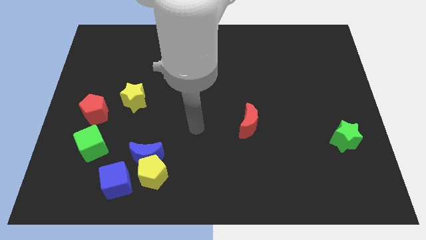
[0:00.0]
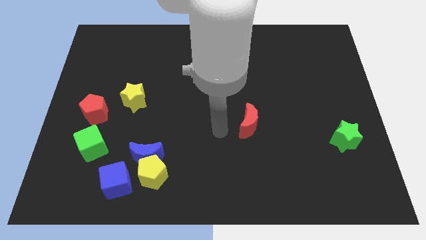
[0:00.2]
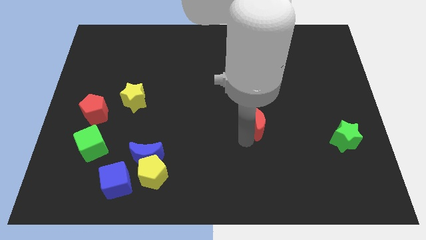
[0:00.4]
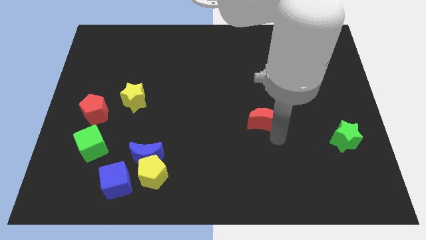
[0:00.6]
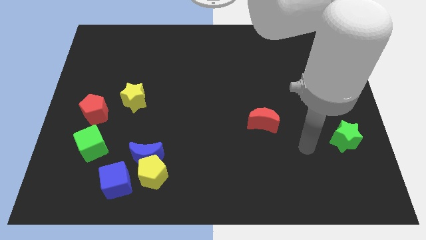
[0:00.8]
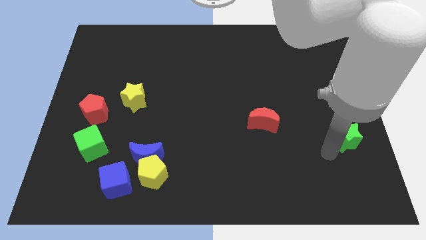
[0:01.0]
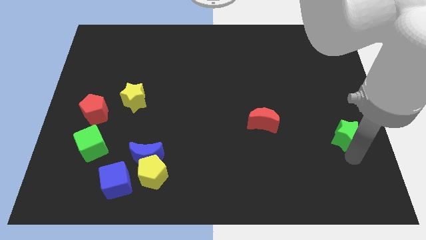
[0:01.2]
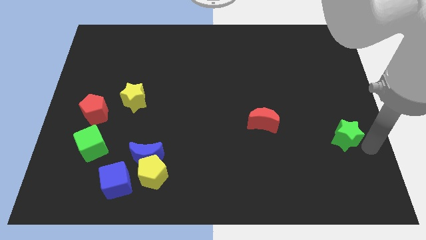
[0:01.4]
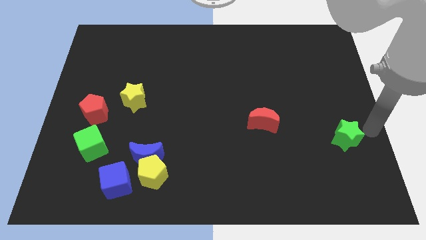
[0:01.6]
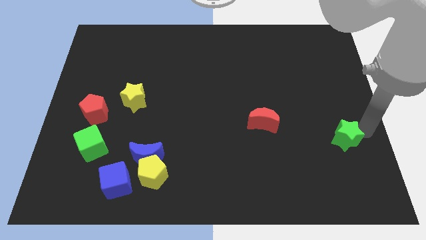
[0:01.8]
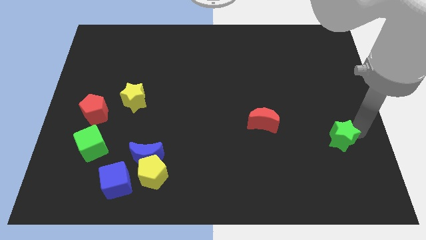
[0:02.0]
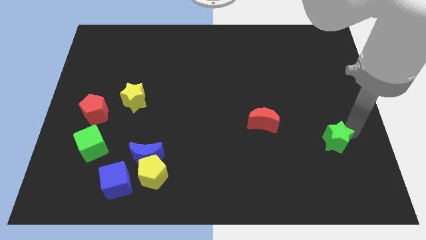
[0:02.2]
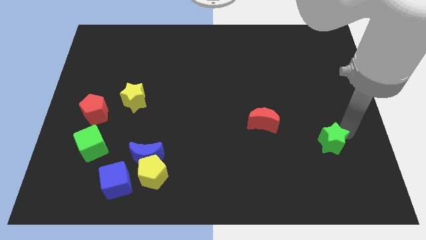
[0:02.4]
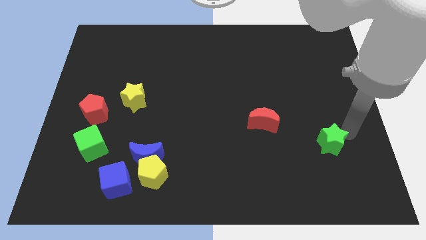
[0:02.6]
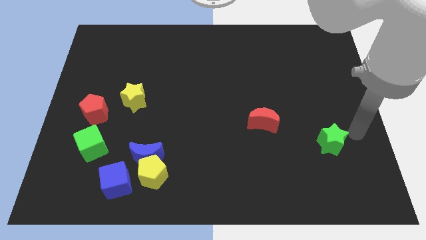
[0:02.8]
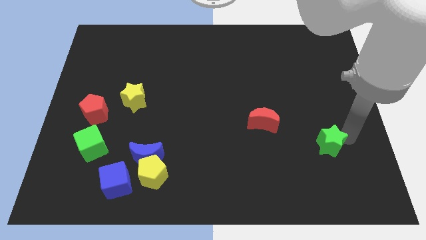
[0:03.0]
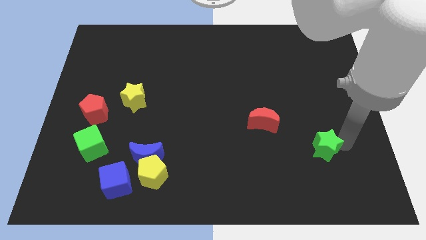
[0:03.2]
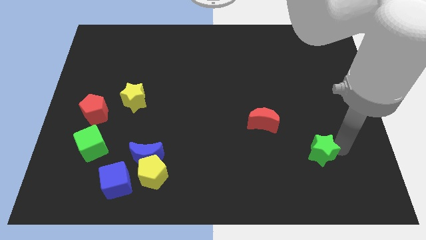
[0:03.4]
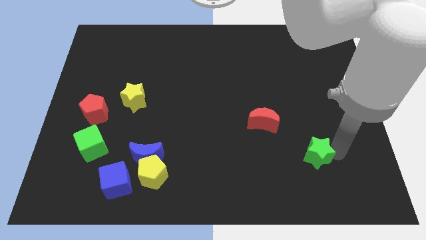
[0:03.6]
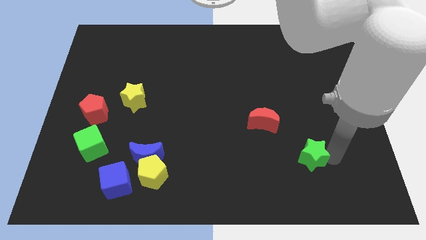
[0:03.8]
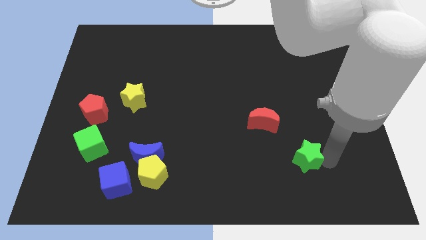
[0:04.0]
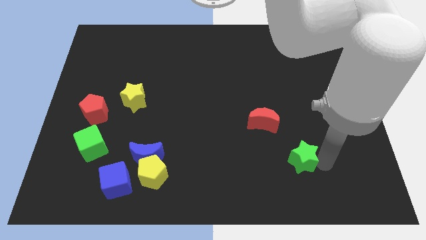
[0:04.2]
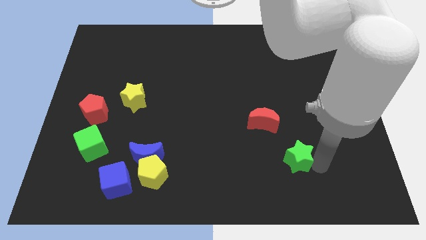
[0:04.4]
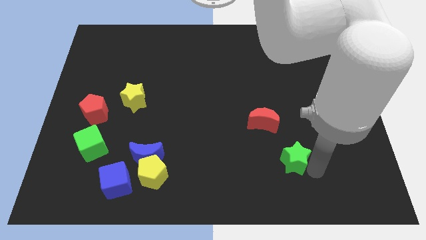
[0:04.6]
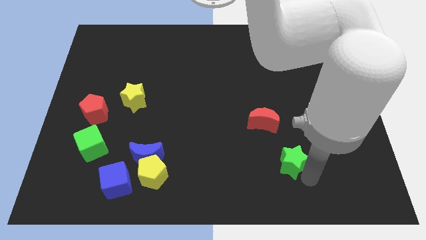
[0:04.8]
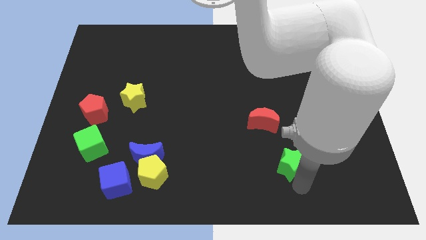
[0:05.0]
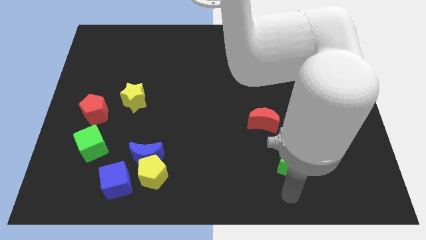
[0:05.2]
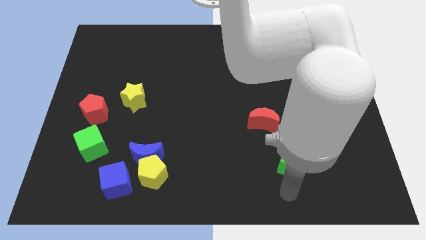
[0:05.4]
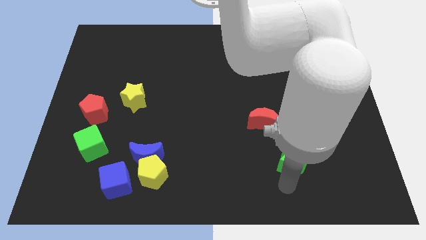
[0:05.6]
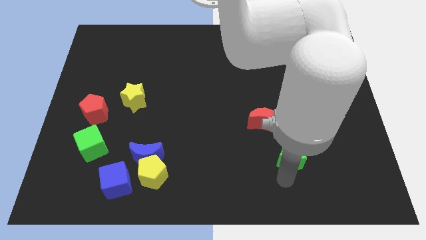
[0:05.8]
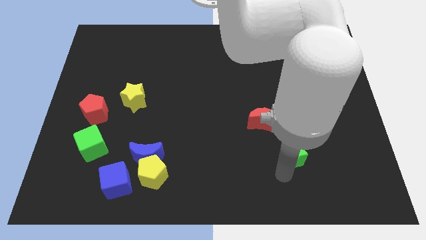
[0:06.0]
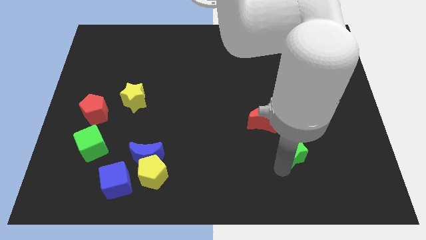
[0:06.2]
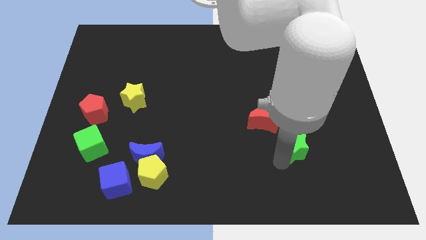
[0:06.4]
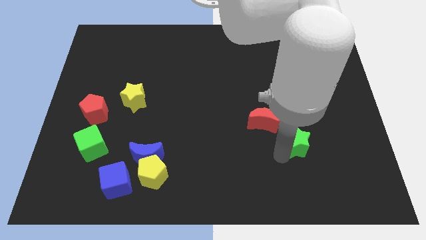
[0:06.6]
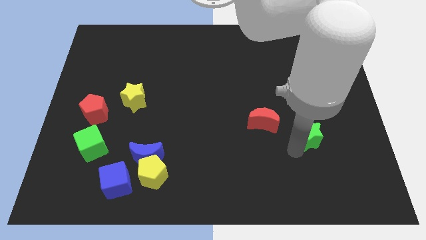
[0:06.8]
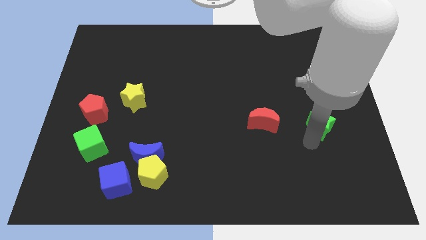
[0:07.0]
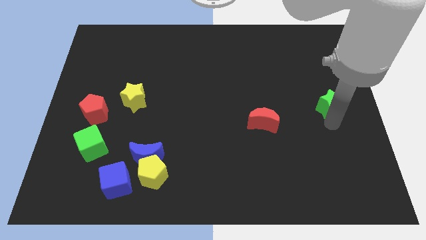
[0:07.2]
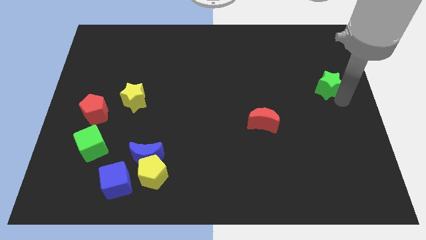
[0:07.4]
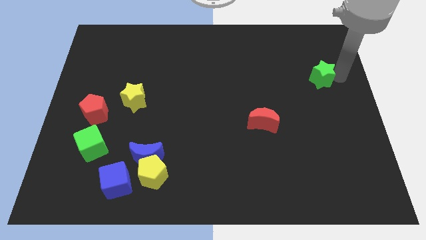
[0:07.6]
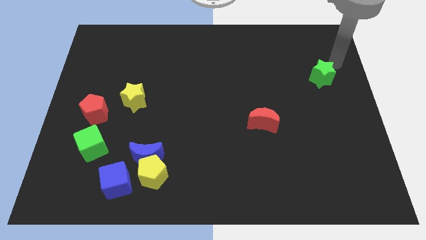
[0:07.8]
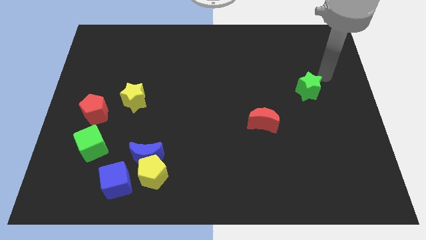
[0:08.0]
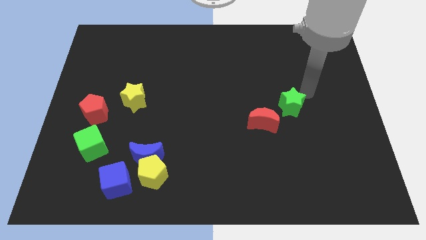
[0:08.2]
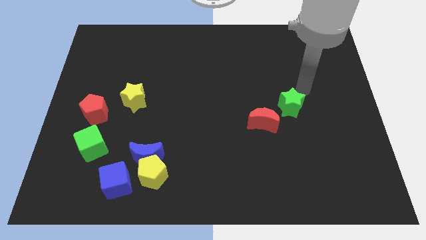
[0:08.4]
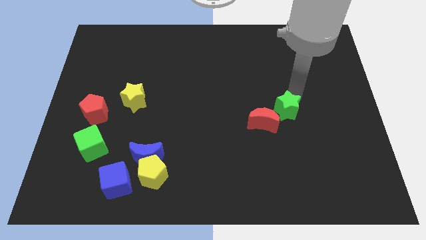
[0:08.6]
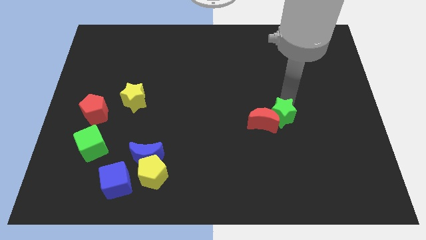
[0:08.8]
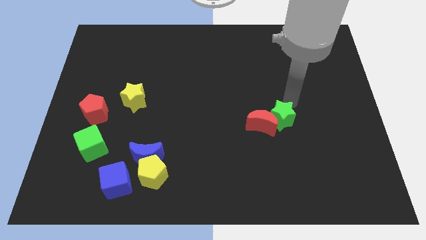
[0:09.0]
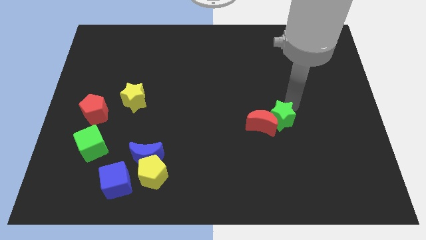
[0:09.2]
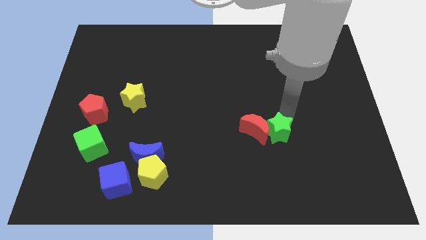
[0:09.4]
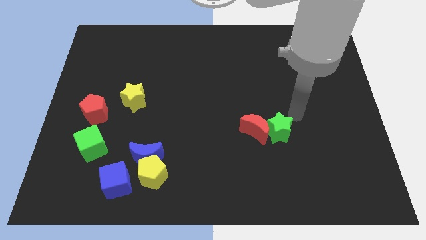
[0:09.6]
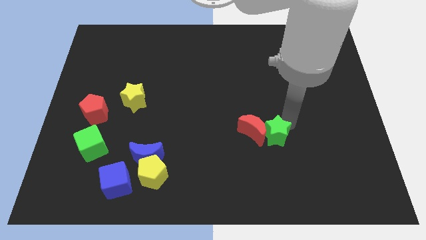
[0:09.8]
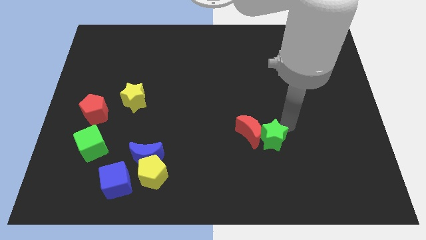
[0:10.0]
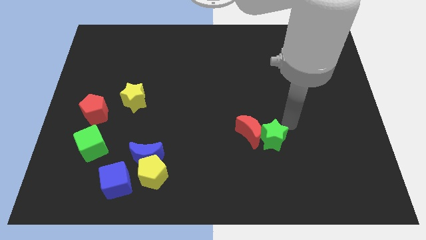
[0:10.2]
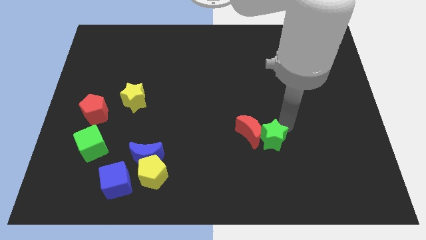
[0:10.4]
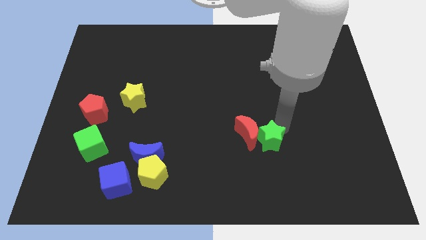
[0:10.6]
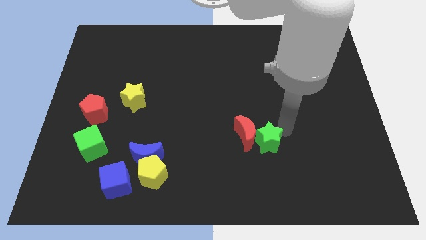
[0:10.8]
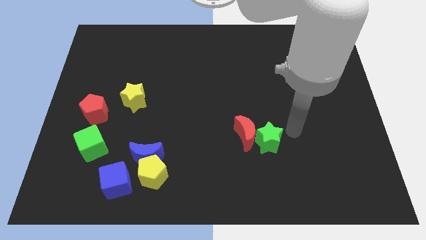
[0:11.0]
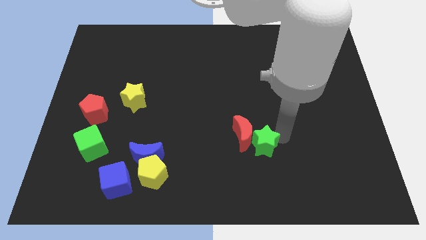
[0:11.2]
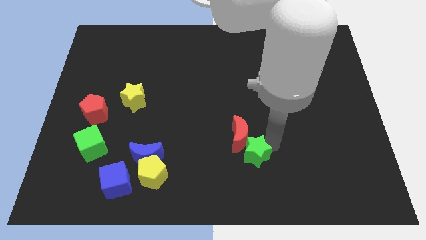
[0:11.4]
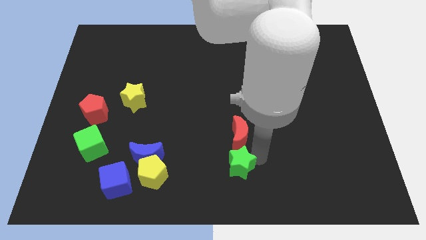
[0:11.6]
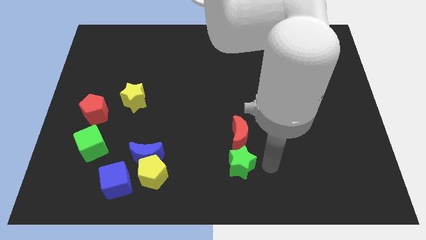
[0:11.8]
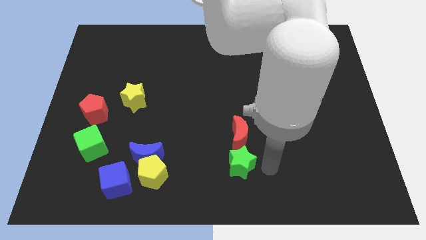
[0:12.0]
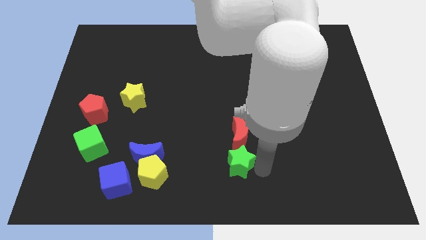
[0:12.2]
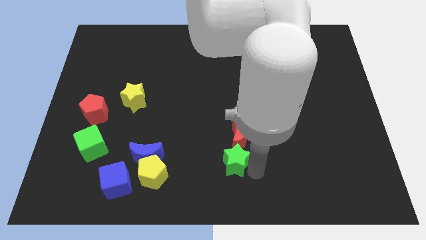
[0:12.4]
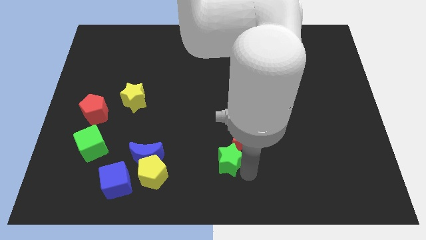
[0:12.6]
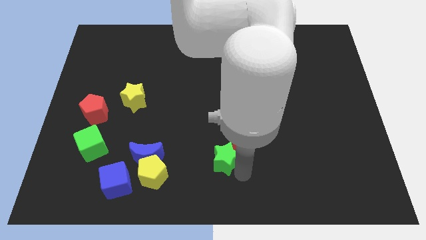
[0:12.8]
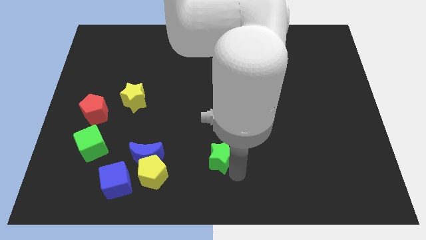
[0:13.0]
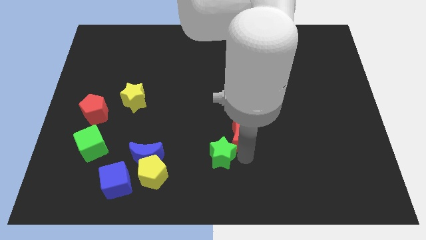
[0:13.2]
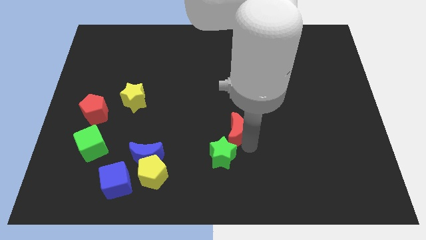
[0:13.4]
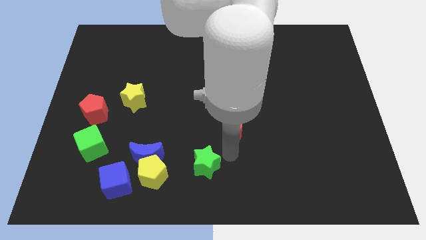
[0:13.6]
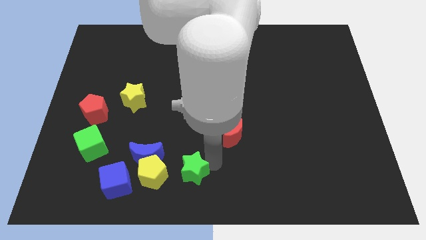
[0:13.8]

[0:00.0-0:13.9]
move the green star right of the blue cube
